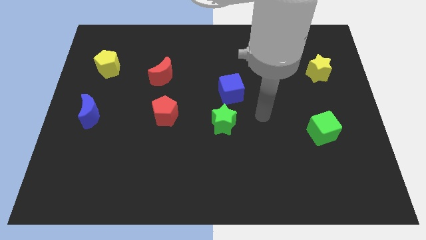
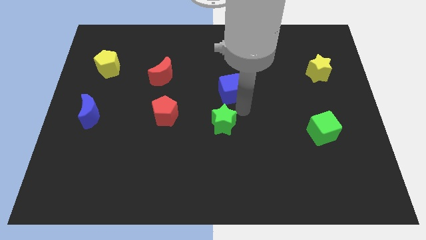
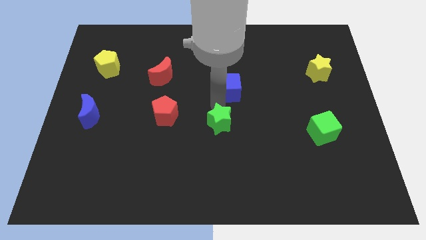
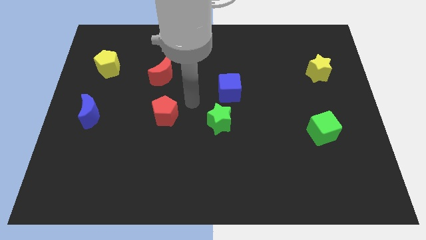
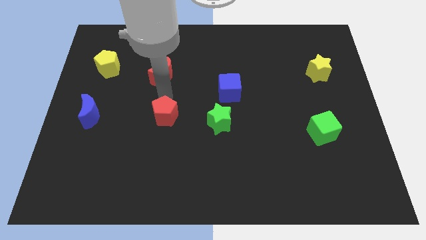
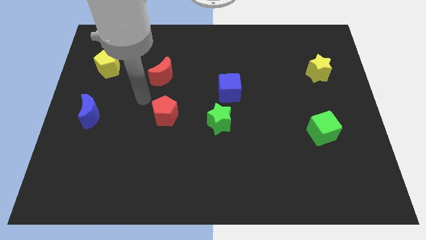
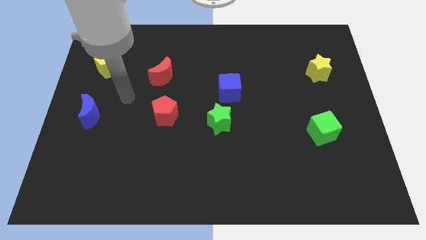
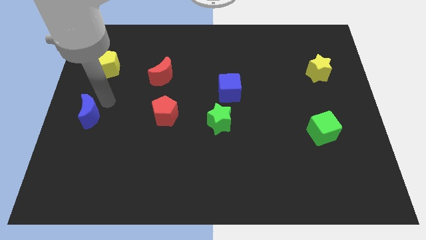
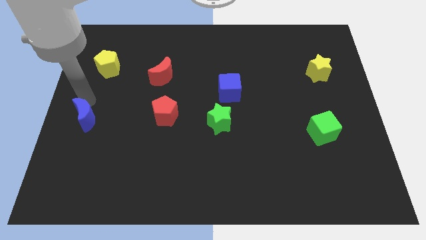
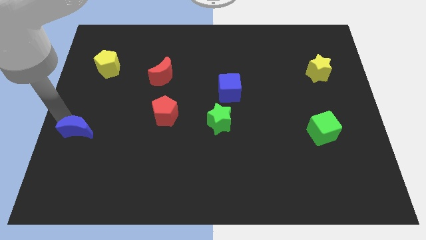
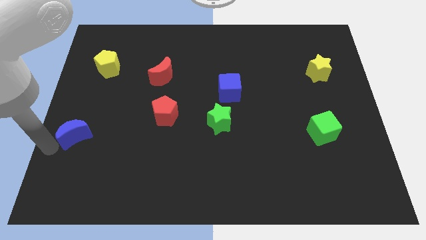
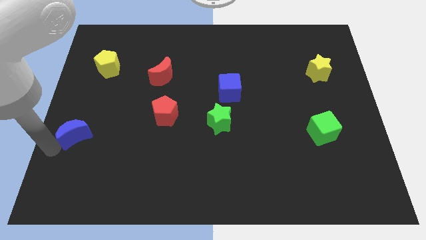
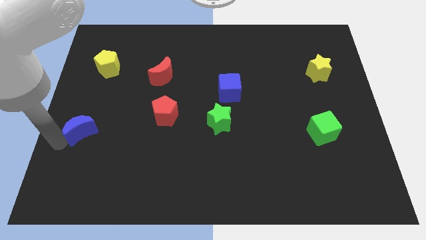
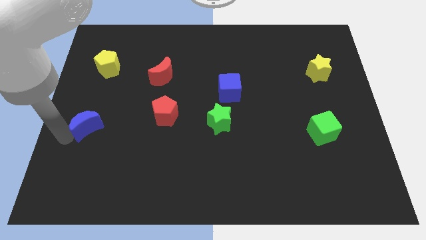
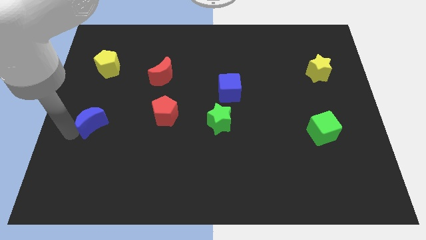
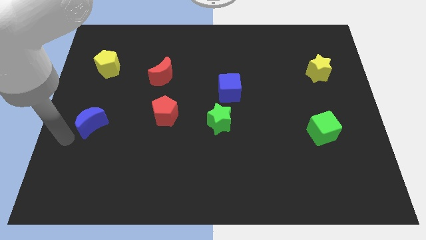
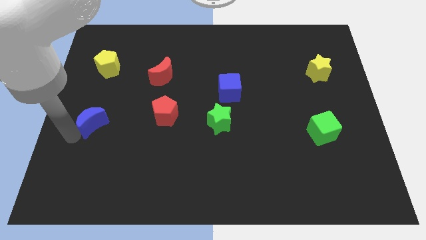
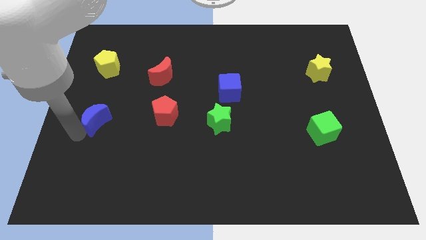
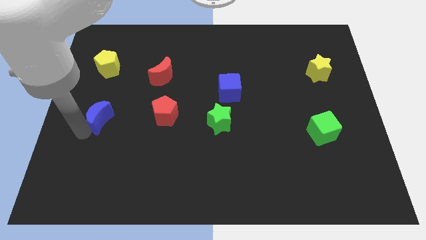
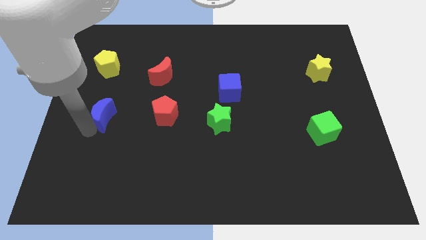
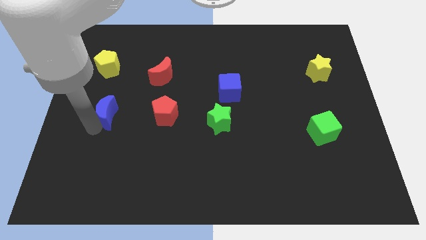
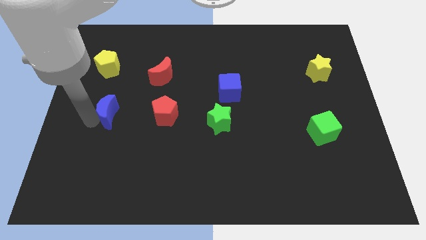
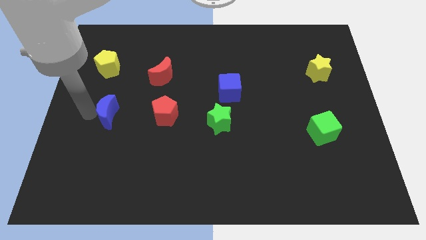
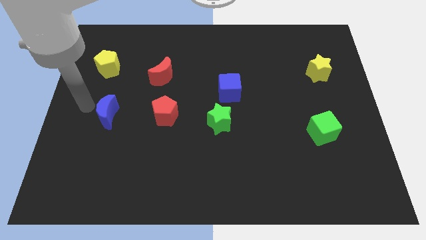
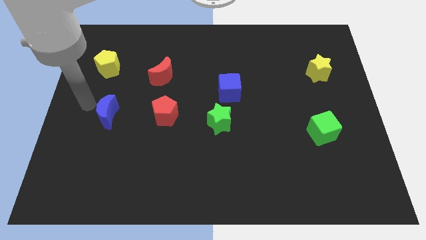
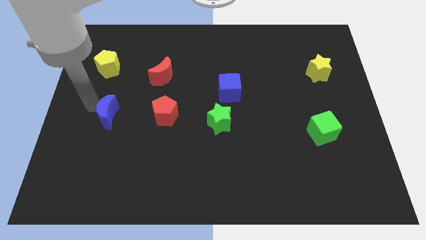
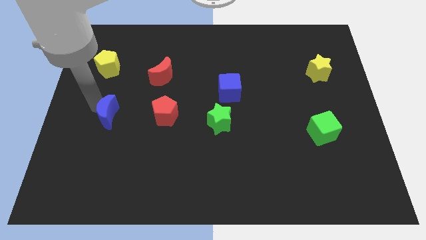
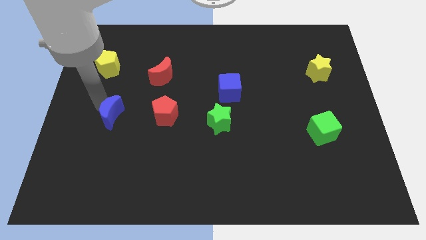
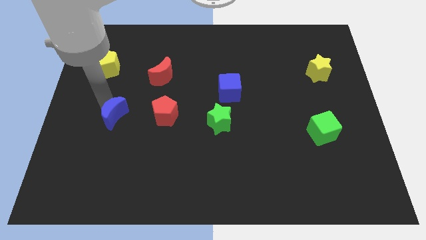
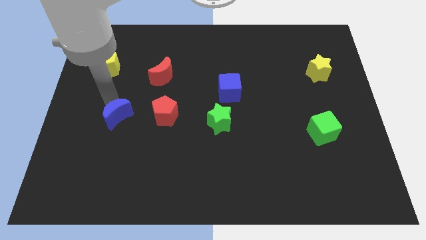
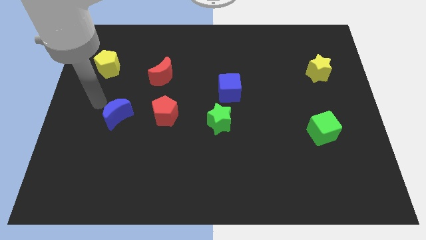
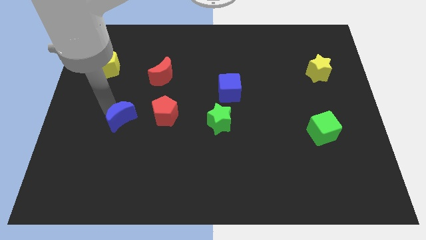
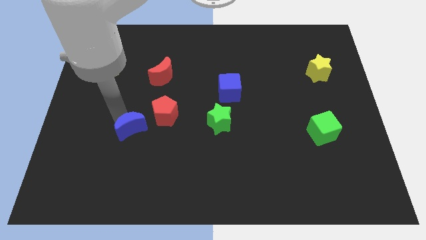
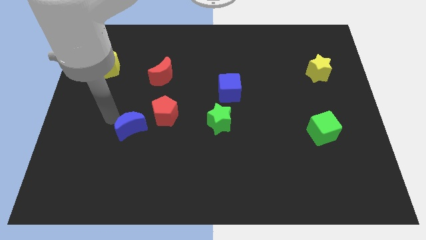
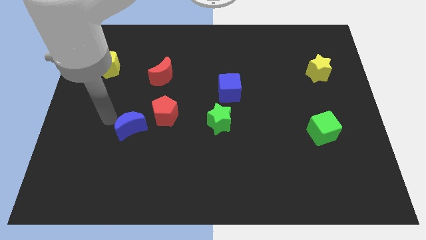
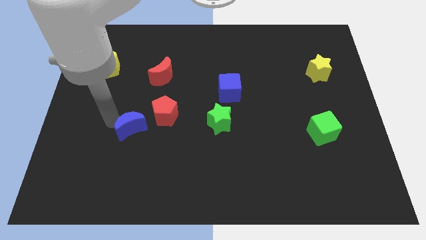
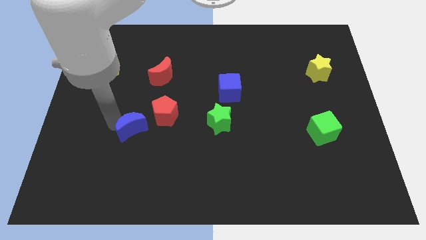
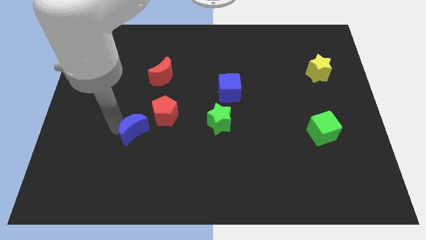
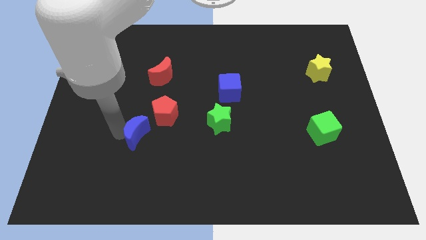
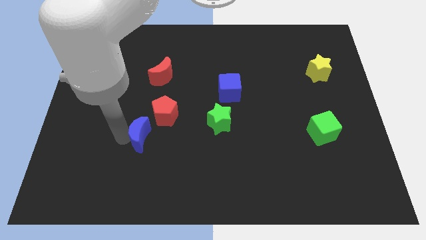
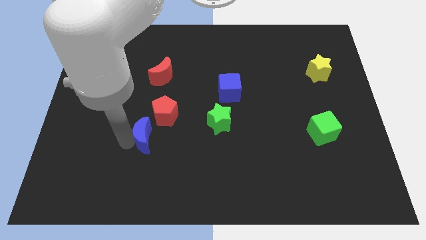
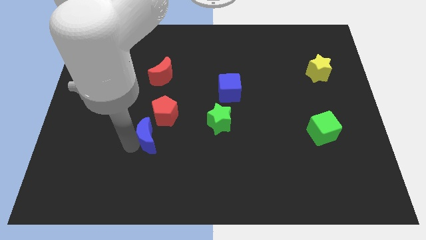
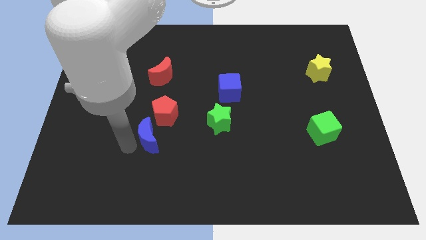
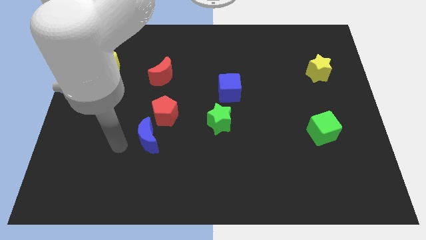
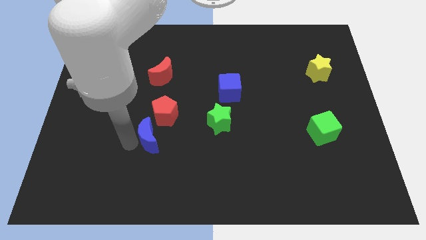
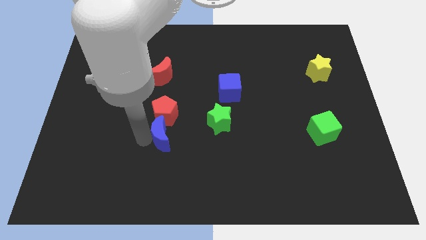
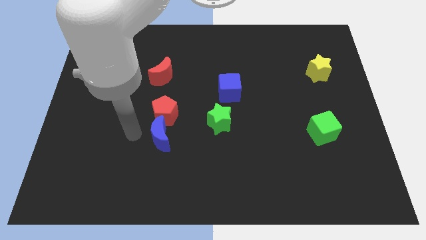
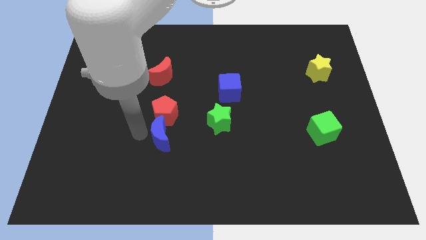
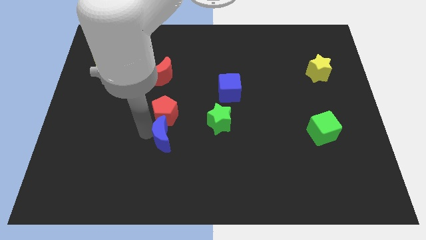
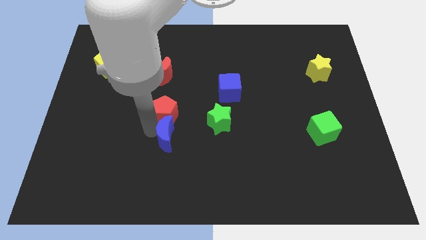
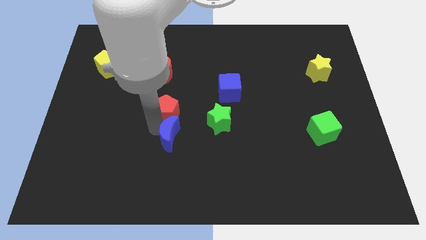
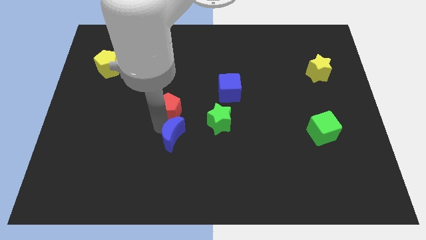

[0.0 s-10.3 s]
slide the blue moon to the bottom left of the green star

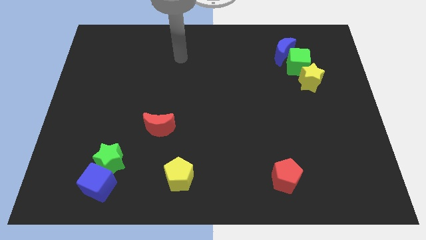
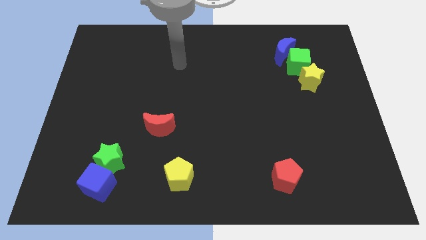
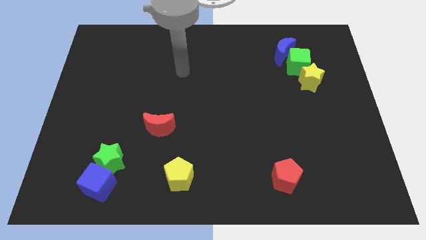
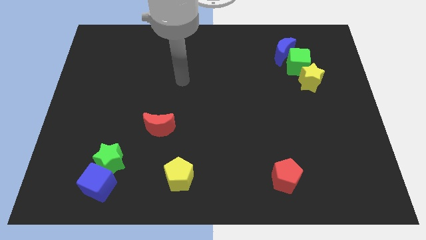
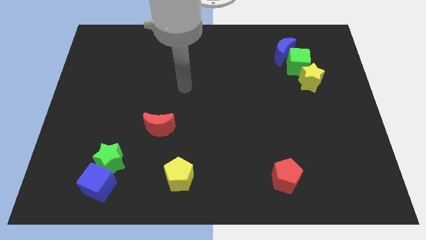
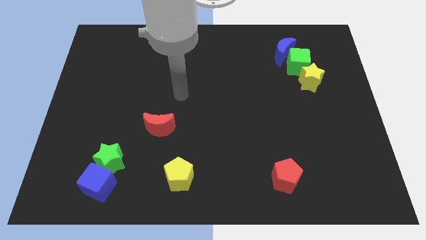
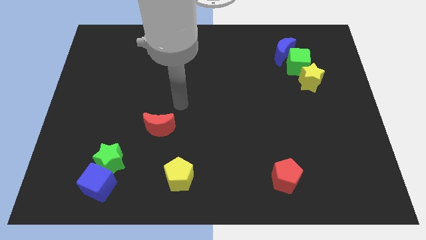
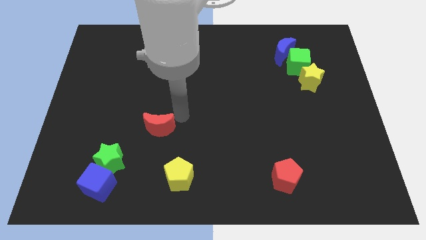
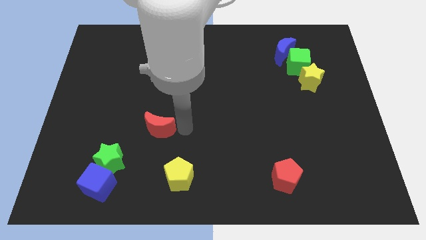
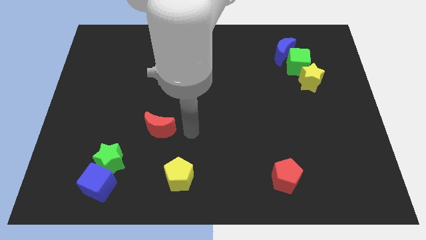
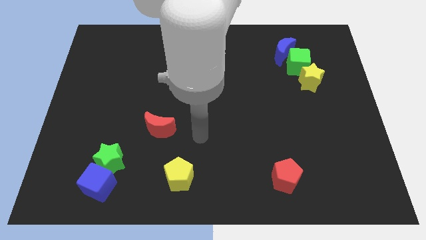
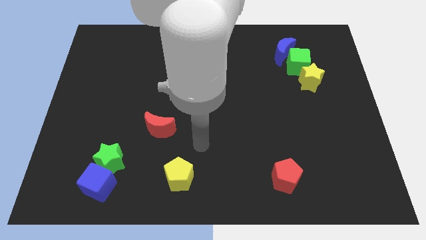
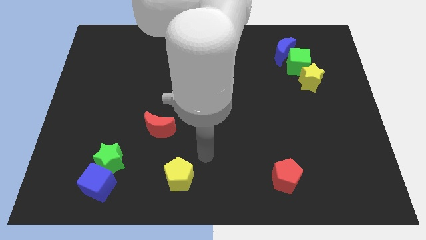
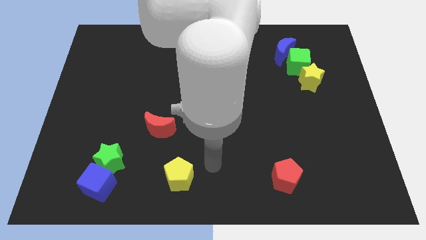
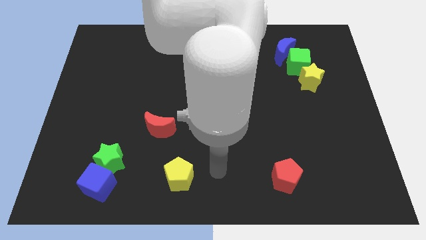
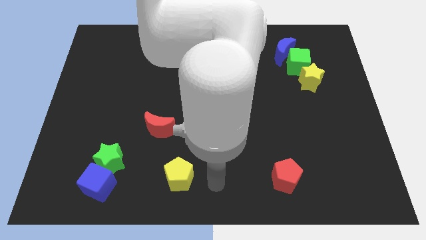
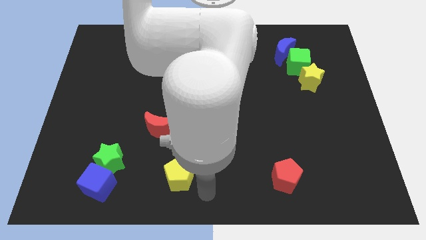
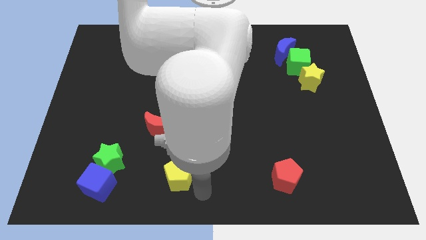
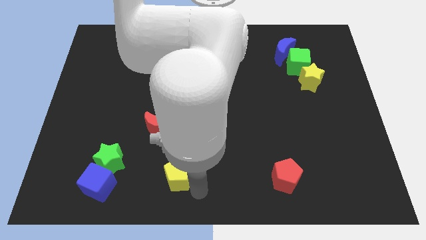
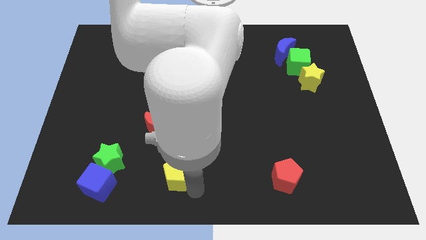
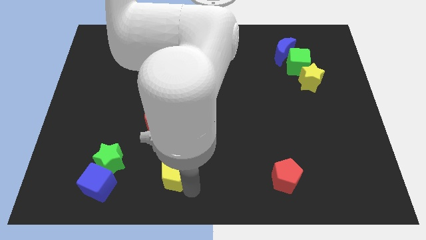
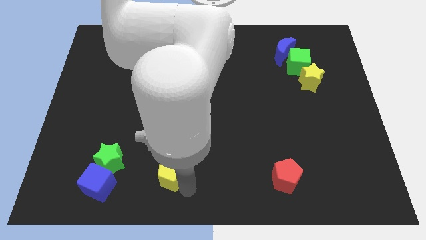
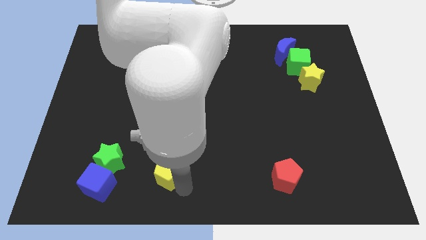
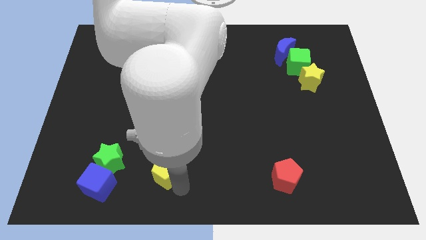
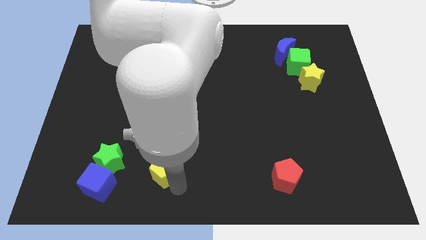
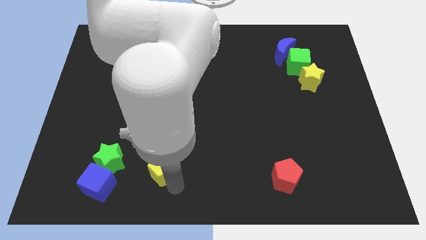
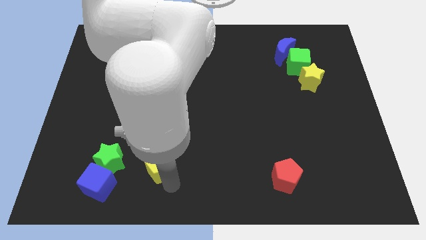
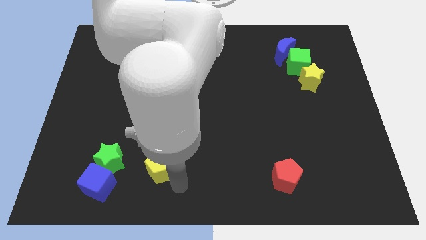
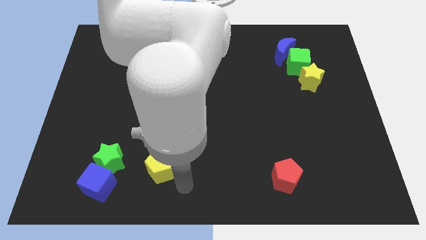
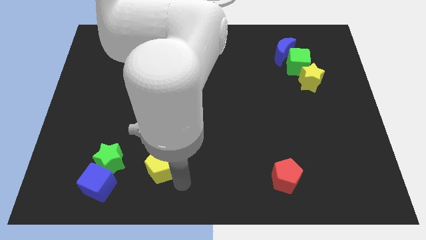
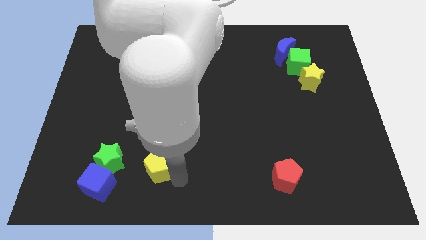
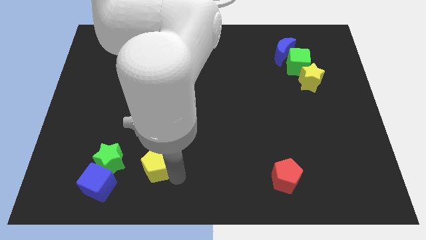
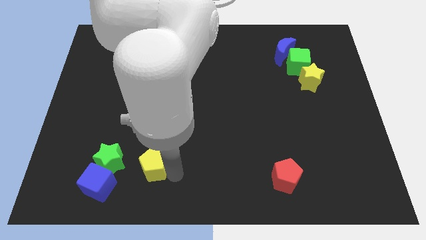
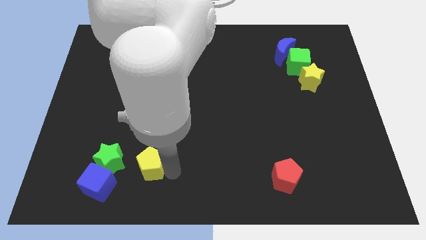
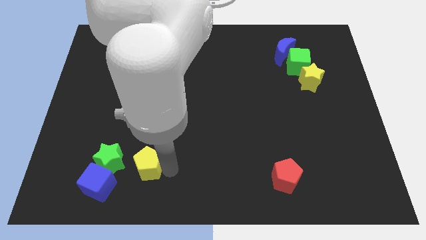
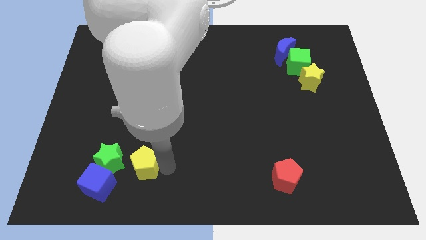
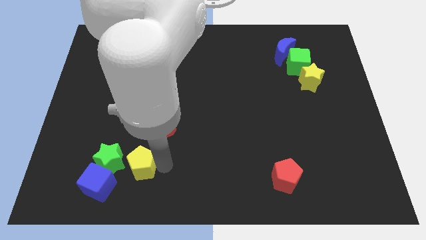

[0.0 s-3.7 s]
slide the yellow pentagon to the bottom left side of the red moon
